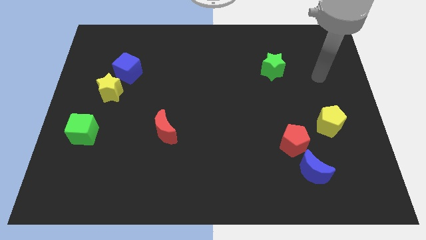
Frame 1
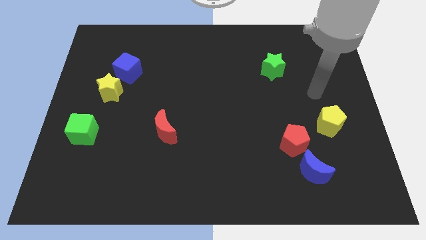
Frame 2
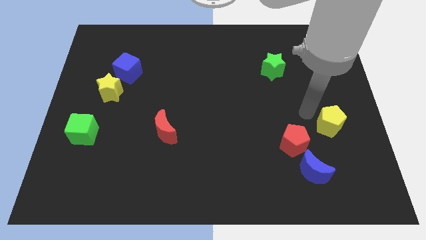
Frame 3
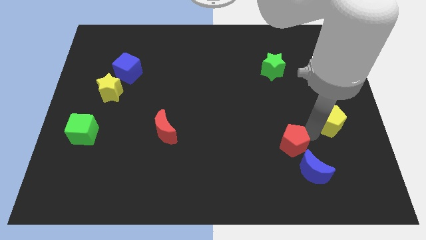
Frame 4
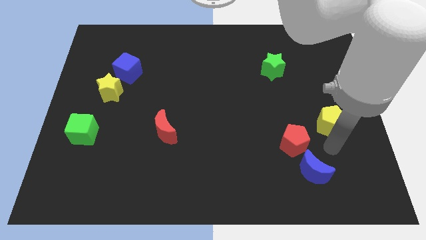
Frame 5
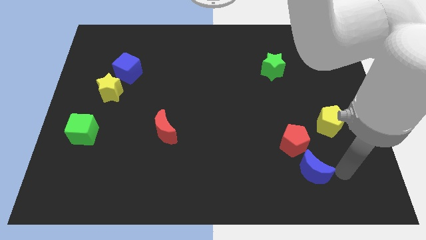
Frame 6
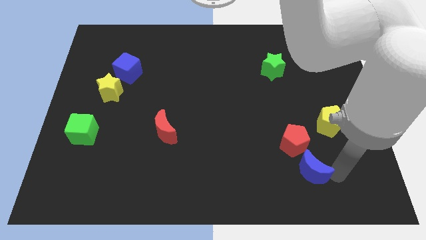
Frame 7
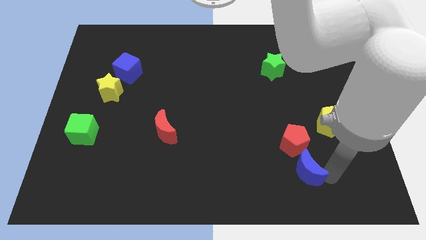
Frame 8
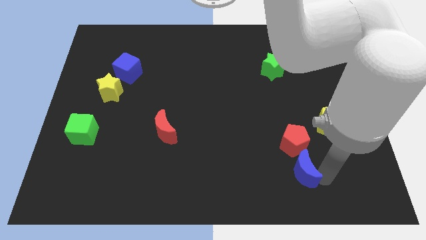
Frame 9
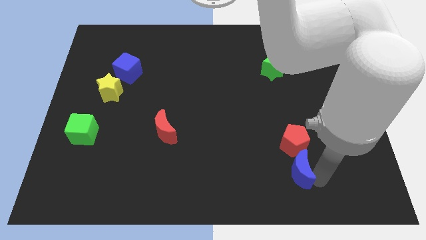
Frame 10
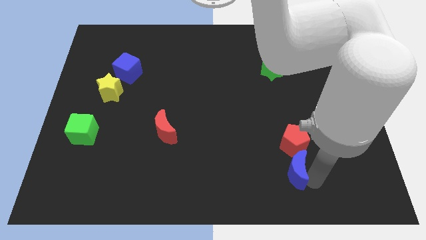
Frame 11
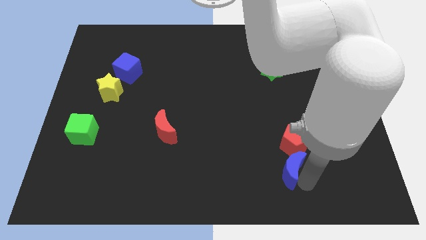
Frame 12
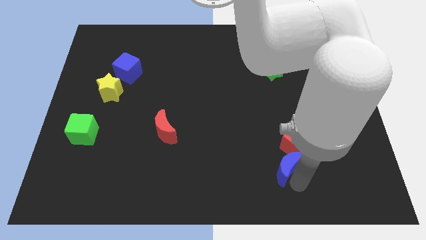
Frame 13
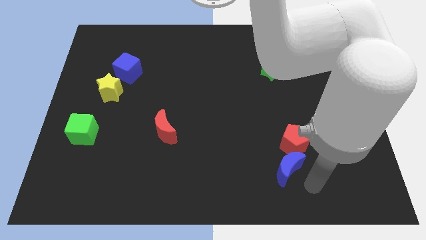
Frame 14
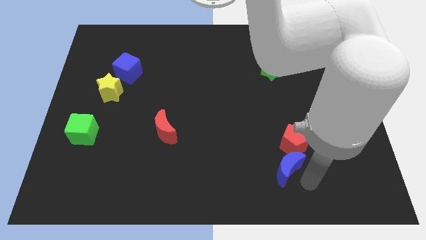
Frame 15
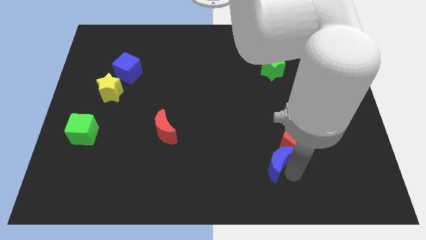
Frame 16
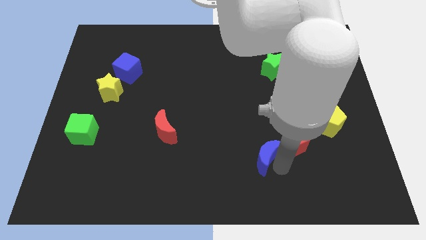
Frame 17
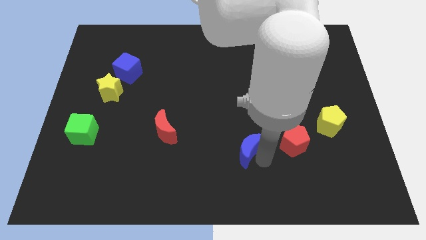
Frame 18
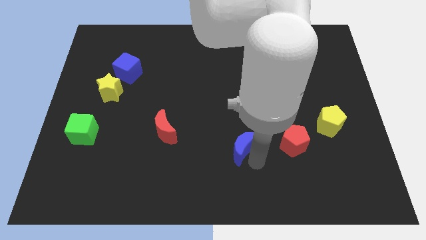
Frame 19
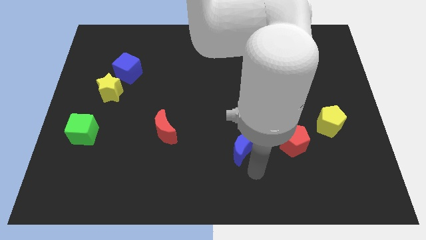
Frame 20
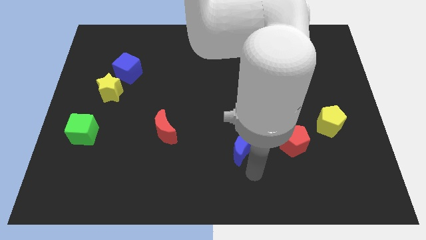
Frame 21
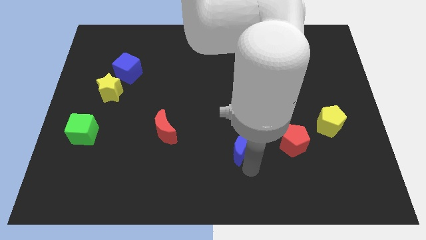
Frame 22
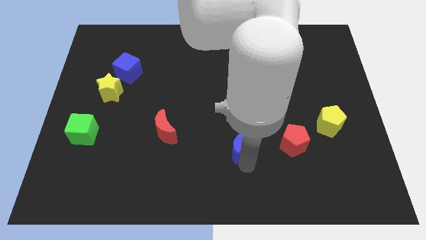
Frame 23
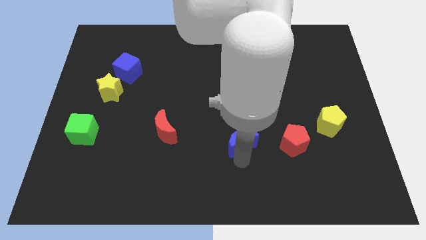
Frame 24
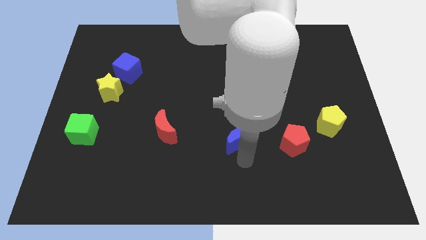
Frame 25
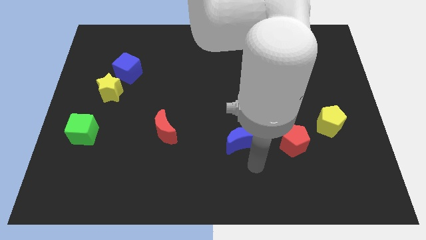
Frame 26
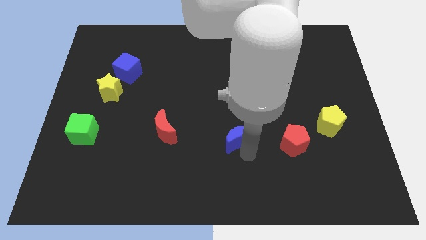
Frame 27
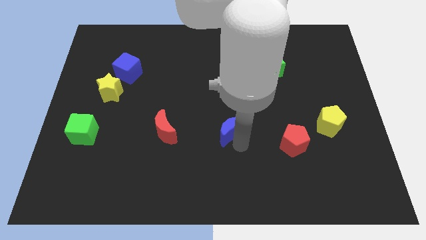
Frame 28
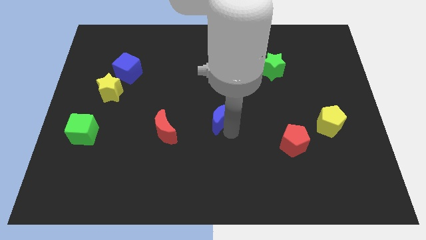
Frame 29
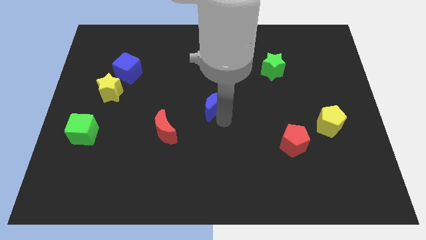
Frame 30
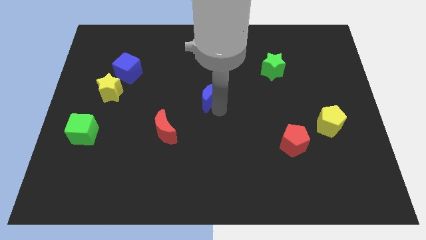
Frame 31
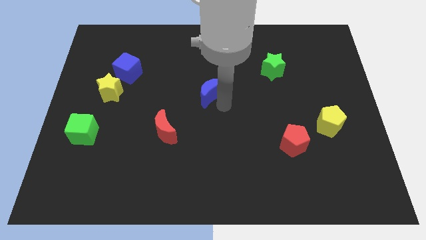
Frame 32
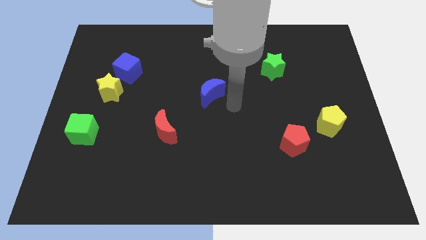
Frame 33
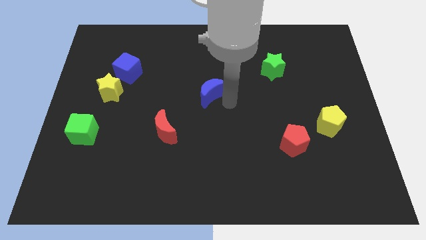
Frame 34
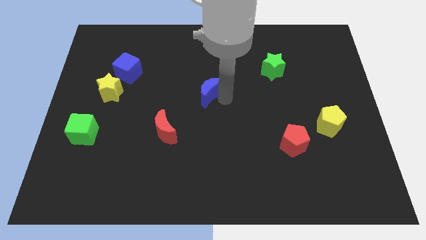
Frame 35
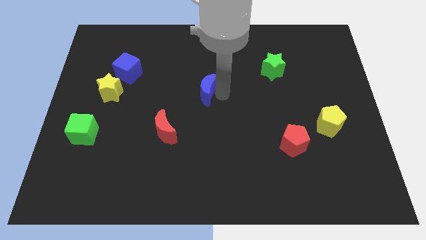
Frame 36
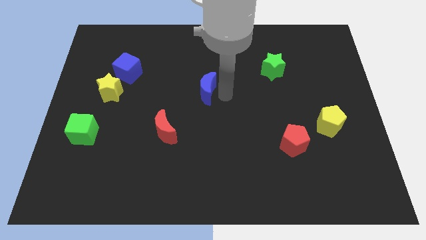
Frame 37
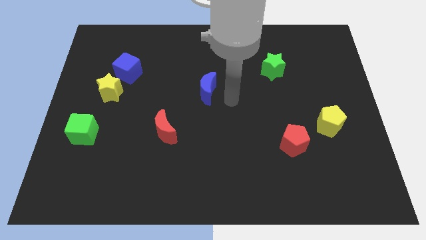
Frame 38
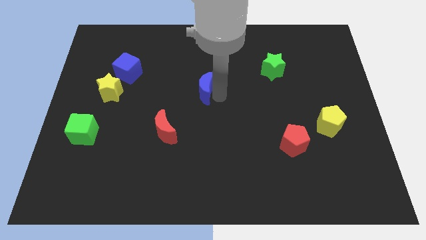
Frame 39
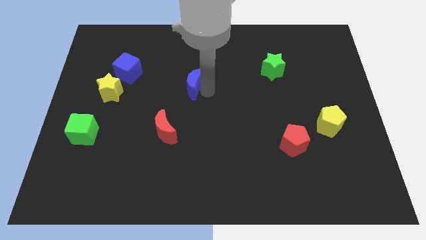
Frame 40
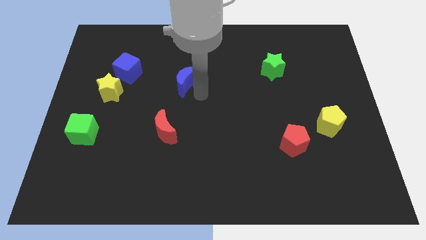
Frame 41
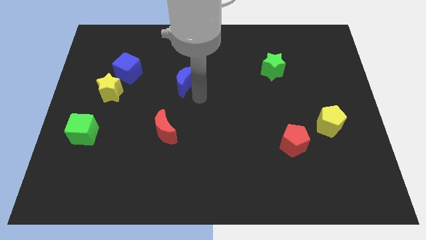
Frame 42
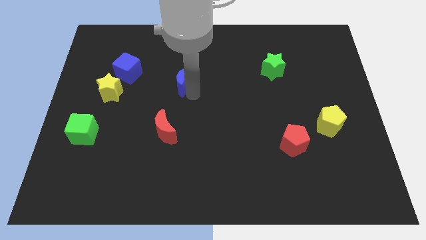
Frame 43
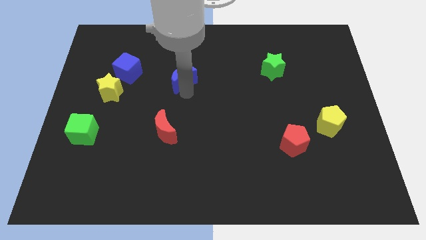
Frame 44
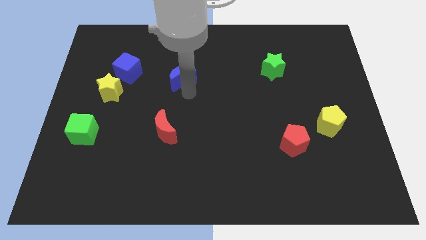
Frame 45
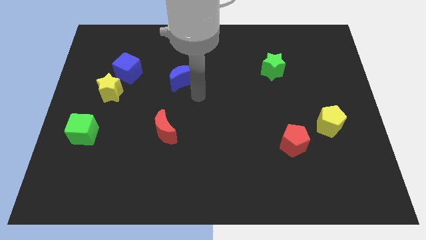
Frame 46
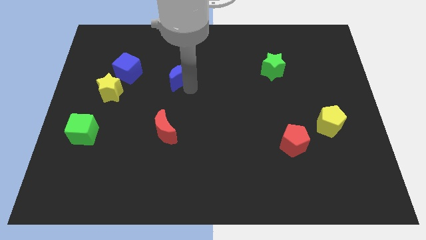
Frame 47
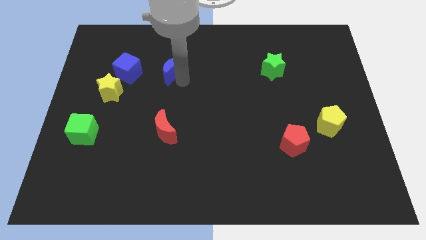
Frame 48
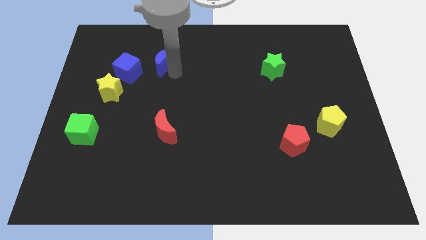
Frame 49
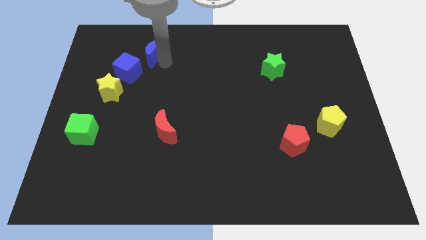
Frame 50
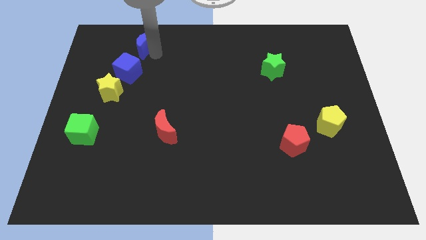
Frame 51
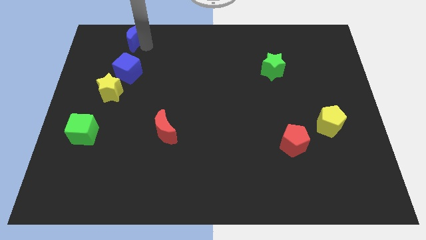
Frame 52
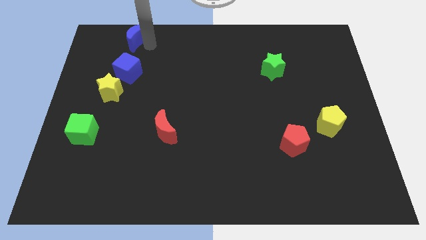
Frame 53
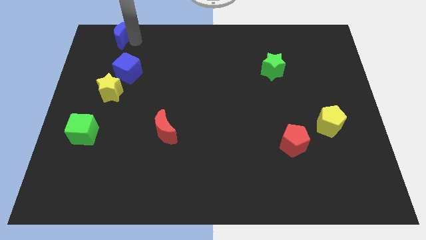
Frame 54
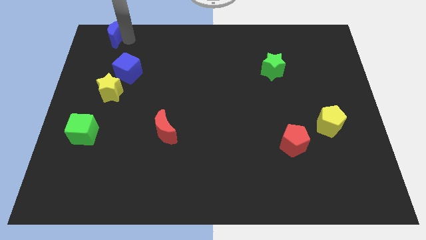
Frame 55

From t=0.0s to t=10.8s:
push the blue moon to the top left of the board
